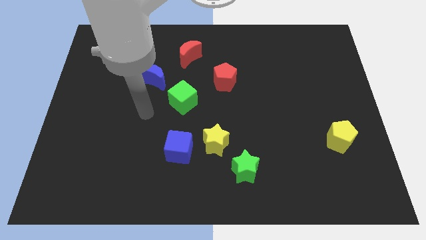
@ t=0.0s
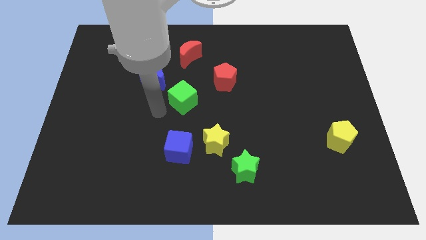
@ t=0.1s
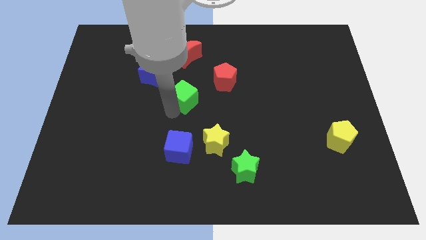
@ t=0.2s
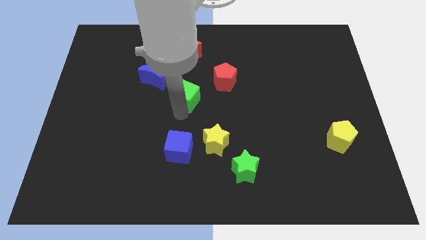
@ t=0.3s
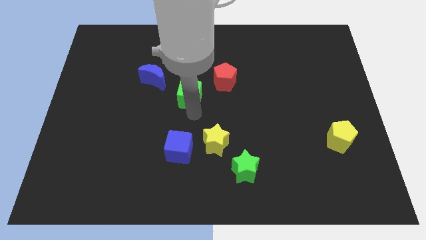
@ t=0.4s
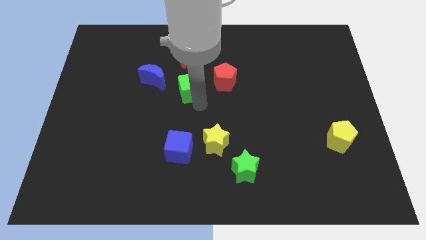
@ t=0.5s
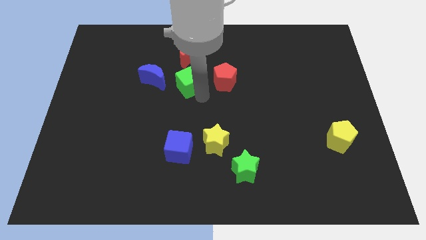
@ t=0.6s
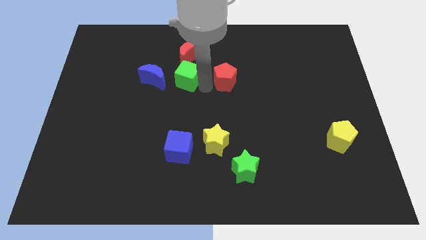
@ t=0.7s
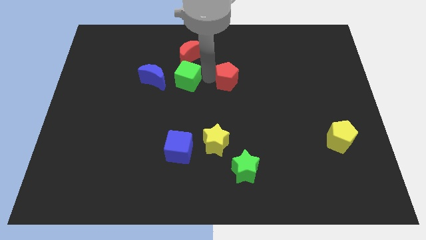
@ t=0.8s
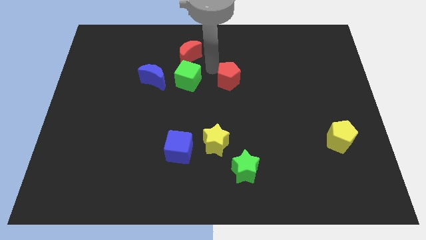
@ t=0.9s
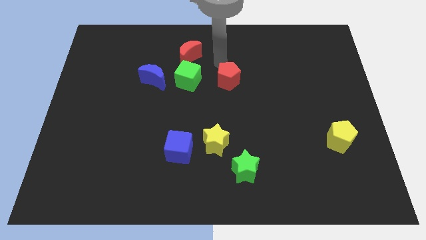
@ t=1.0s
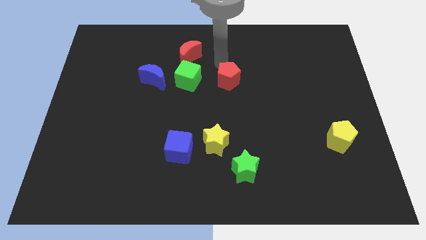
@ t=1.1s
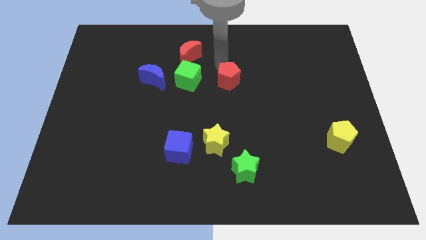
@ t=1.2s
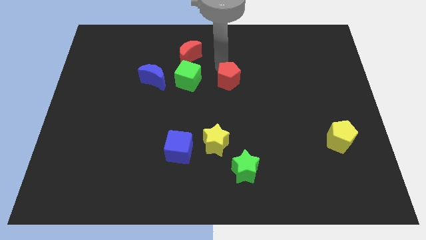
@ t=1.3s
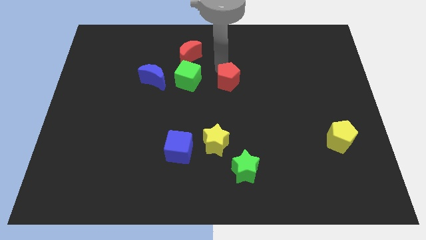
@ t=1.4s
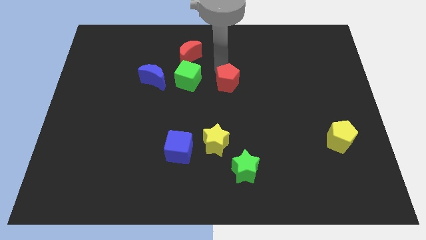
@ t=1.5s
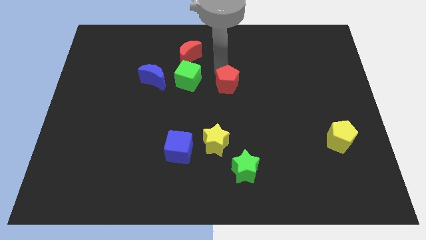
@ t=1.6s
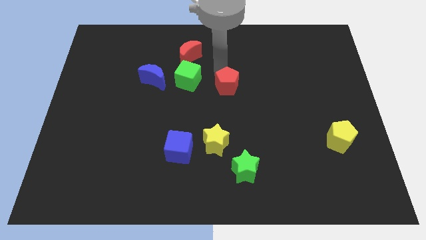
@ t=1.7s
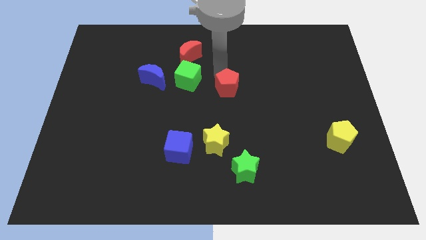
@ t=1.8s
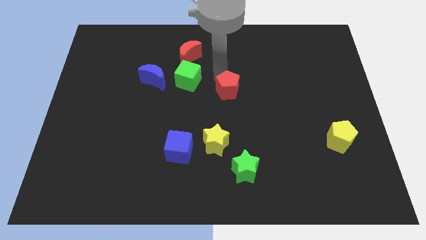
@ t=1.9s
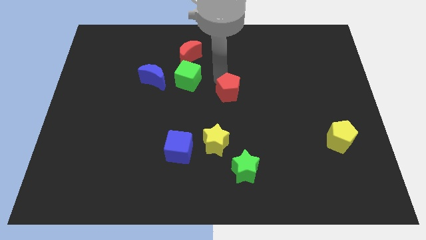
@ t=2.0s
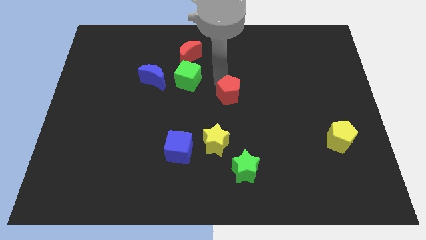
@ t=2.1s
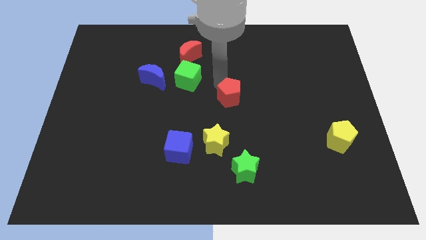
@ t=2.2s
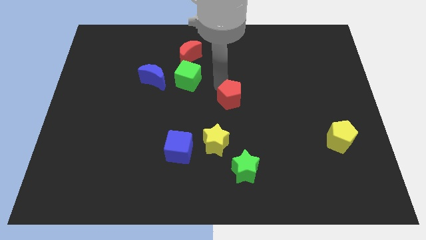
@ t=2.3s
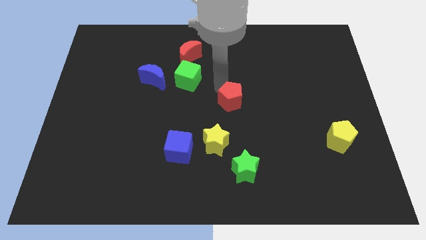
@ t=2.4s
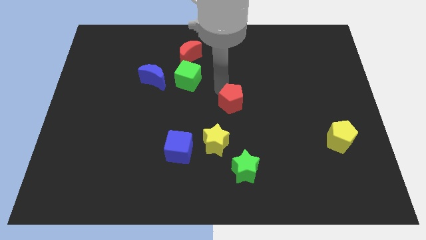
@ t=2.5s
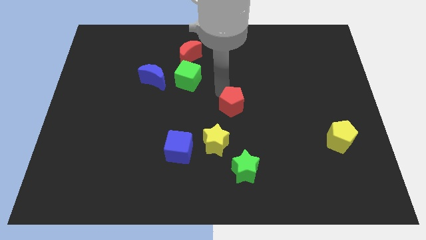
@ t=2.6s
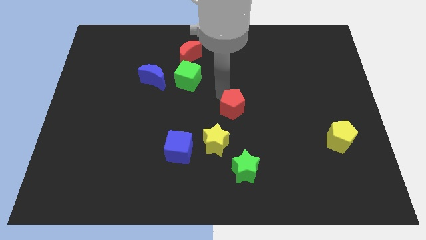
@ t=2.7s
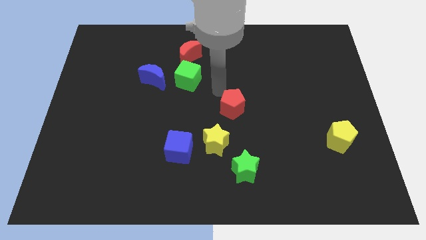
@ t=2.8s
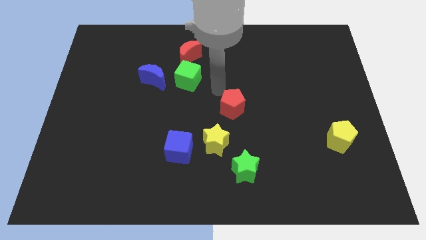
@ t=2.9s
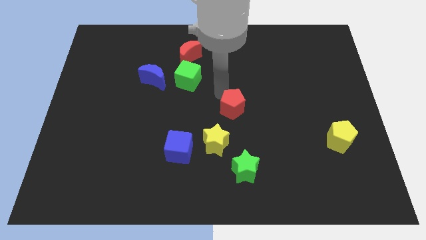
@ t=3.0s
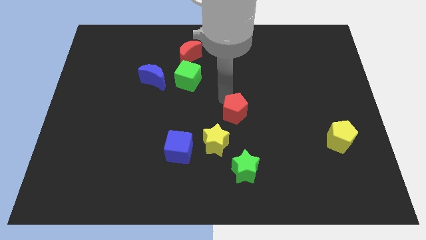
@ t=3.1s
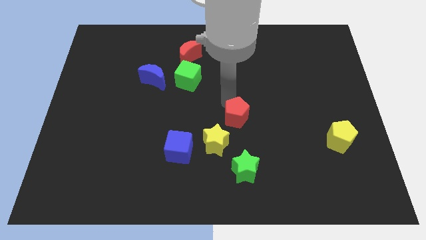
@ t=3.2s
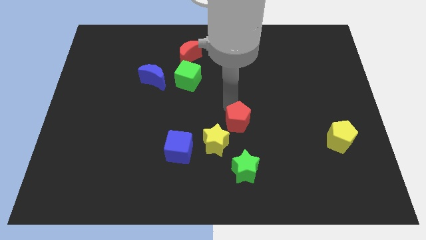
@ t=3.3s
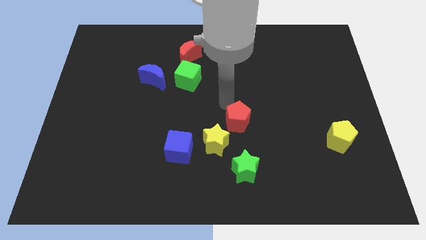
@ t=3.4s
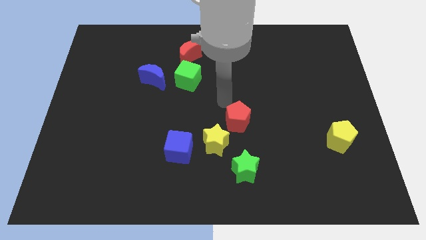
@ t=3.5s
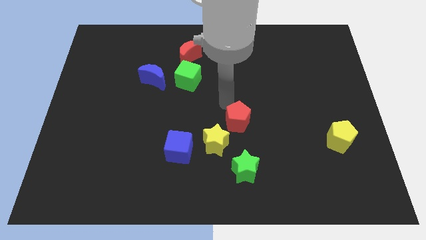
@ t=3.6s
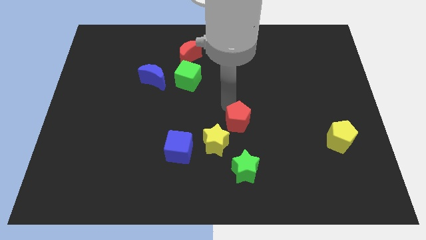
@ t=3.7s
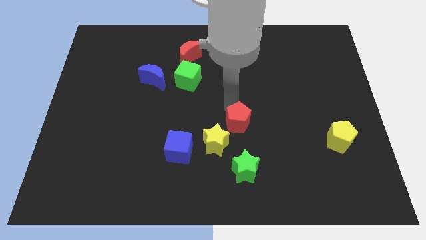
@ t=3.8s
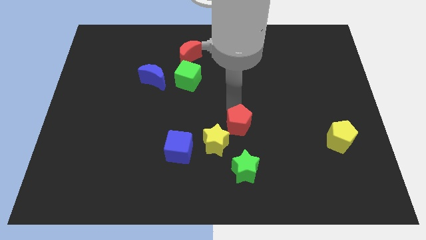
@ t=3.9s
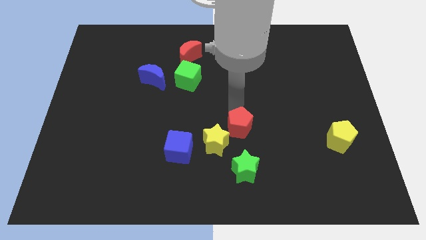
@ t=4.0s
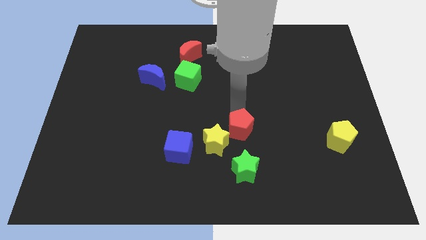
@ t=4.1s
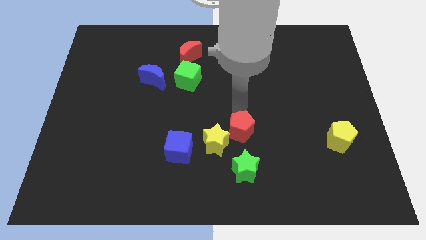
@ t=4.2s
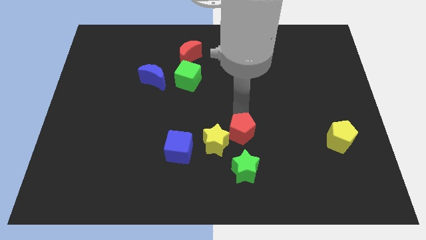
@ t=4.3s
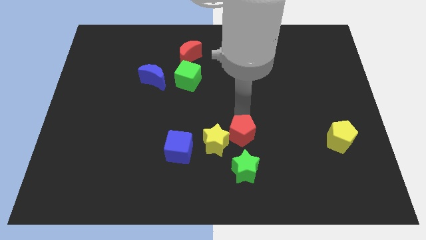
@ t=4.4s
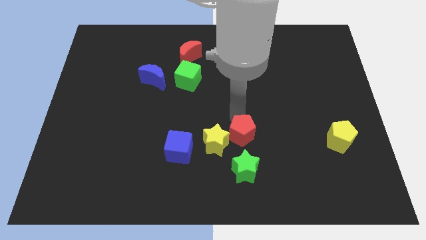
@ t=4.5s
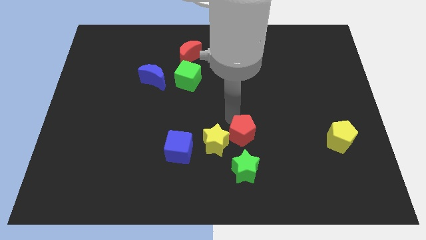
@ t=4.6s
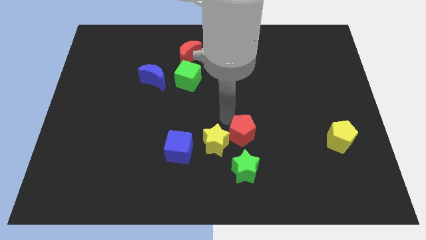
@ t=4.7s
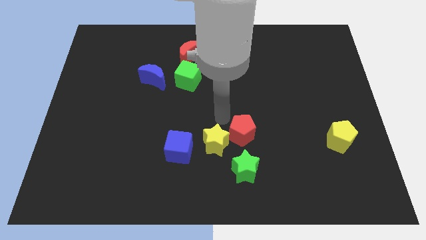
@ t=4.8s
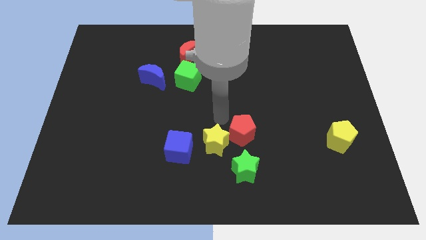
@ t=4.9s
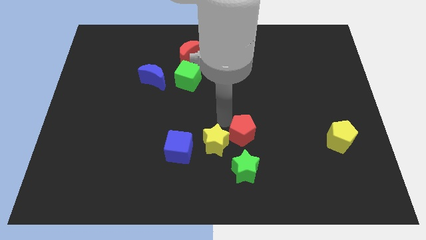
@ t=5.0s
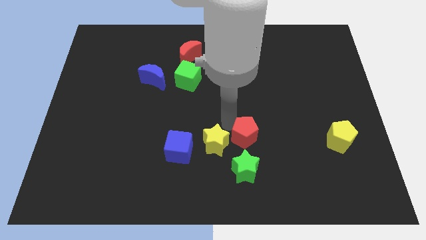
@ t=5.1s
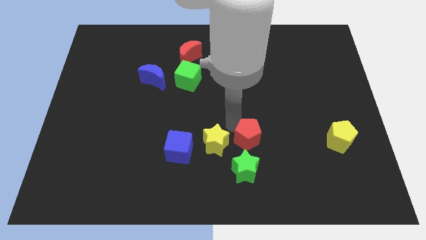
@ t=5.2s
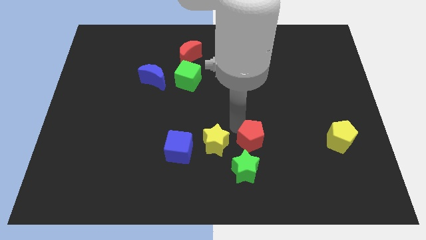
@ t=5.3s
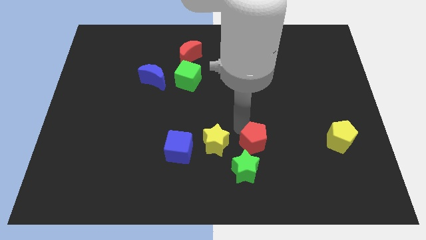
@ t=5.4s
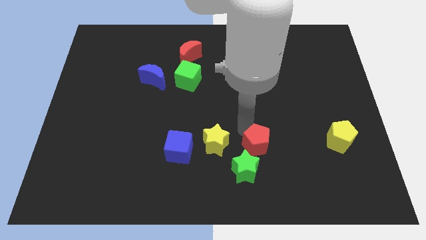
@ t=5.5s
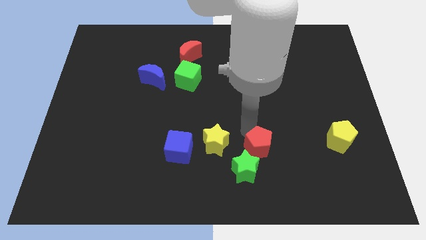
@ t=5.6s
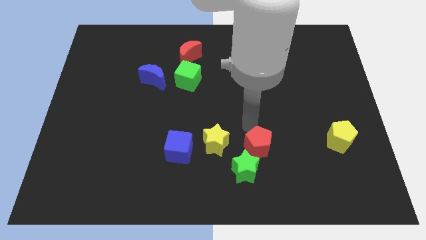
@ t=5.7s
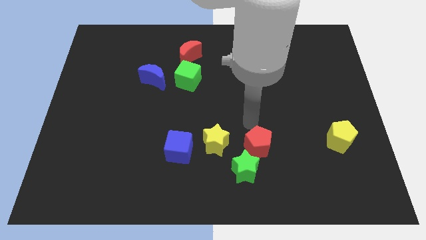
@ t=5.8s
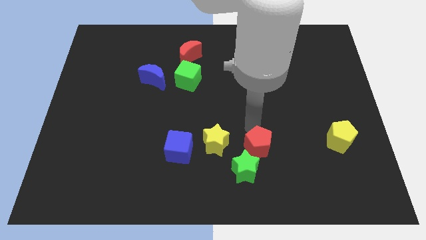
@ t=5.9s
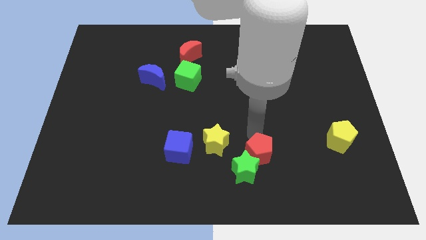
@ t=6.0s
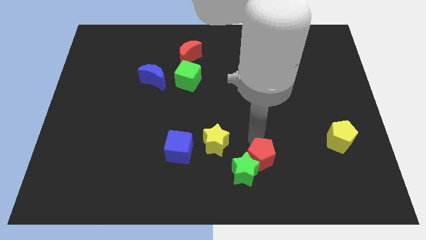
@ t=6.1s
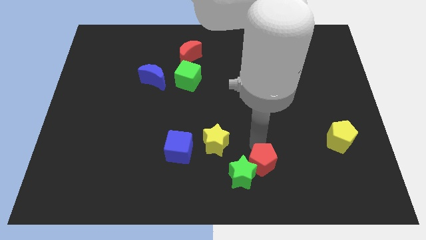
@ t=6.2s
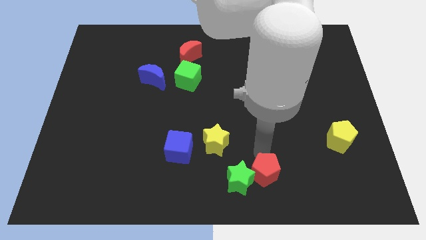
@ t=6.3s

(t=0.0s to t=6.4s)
push the red pentagon to the bottom side

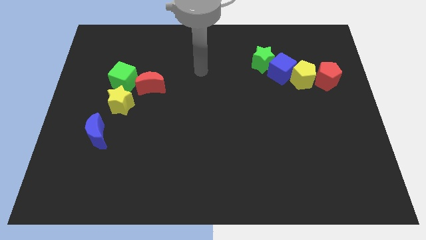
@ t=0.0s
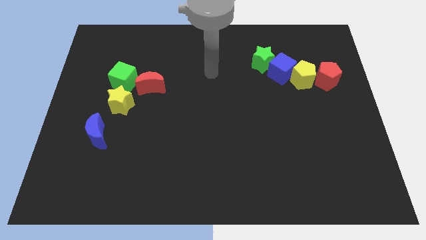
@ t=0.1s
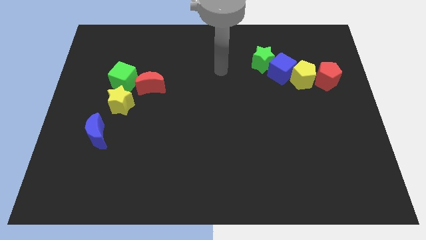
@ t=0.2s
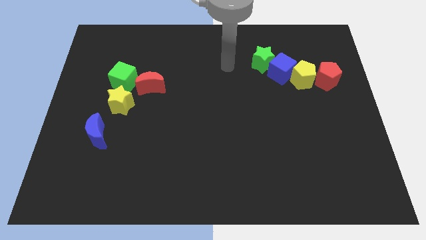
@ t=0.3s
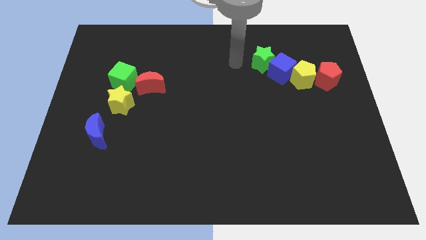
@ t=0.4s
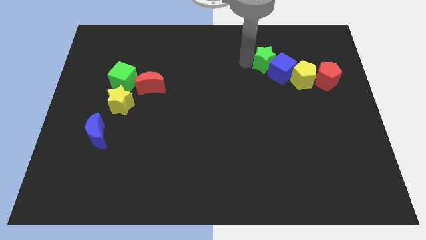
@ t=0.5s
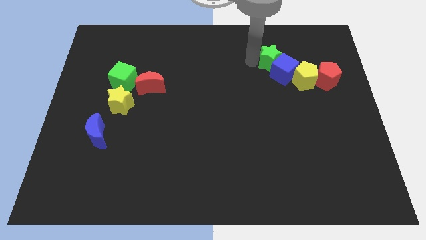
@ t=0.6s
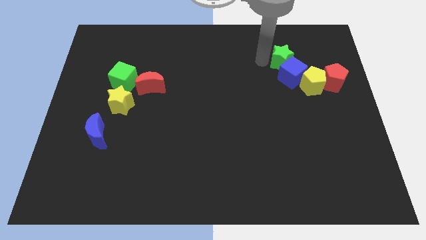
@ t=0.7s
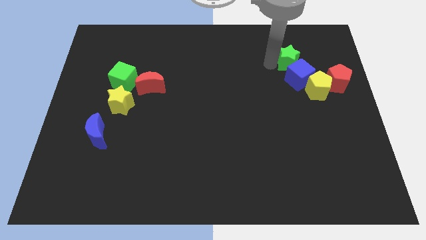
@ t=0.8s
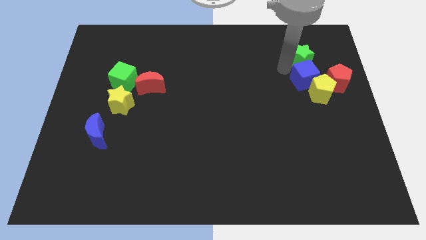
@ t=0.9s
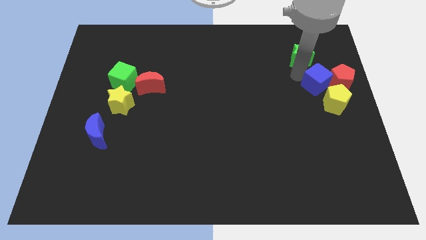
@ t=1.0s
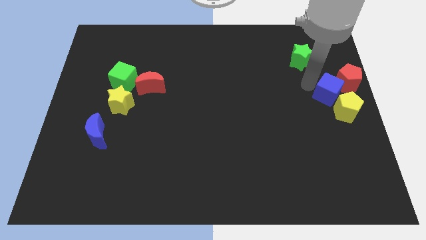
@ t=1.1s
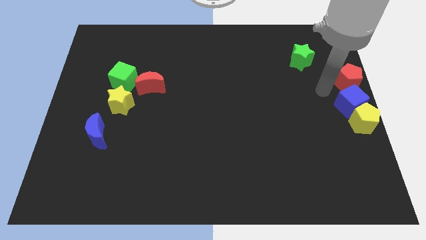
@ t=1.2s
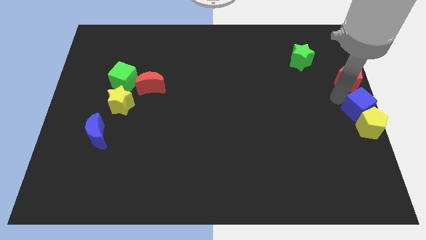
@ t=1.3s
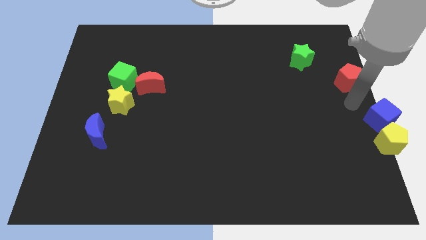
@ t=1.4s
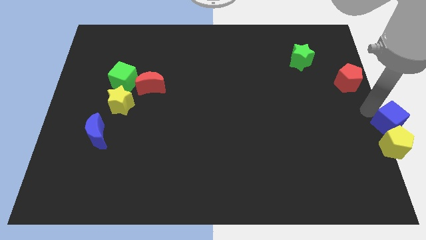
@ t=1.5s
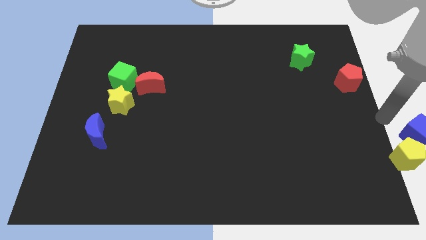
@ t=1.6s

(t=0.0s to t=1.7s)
put the yellow pentagon to the bottom right corner
